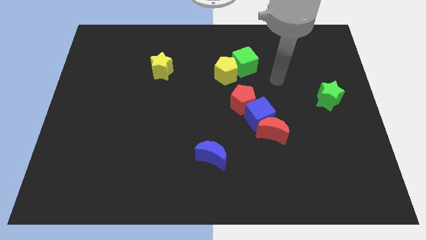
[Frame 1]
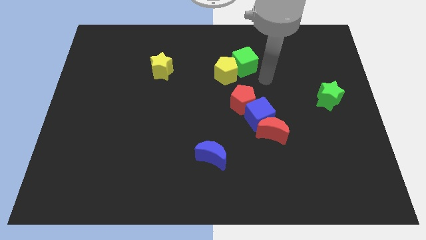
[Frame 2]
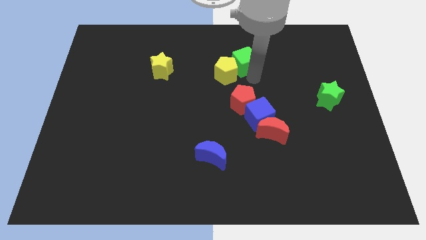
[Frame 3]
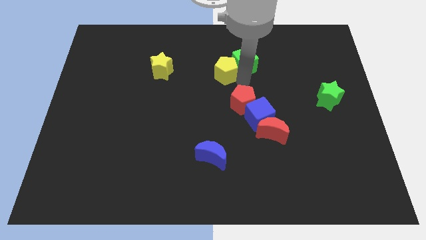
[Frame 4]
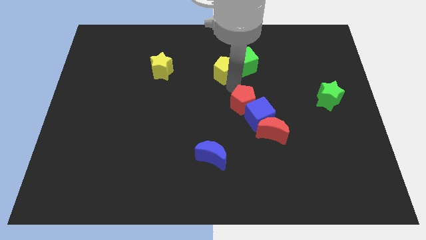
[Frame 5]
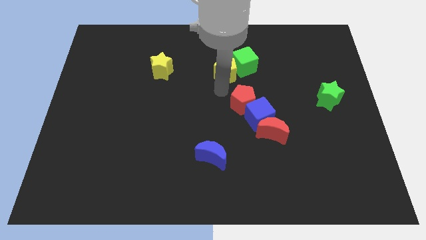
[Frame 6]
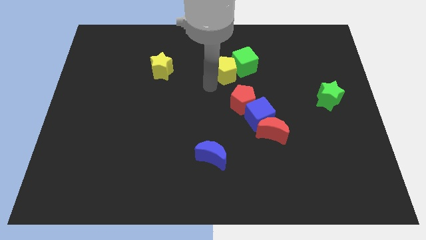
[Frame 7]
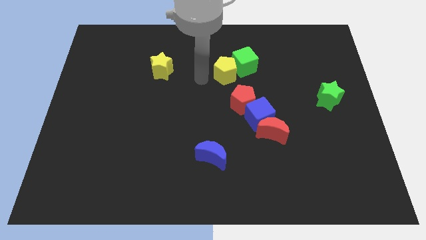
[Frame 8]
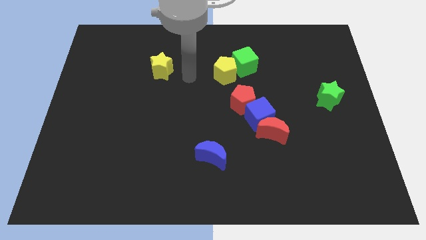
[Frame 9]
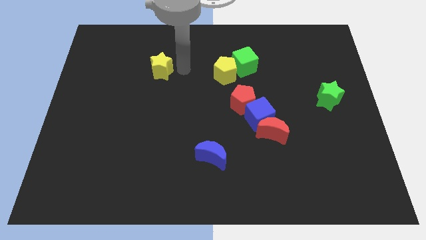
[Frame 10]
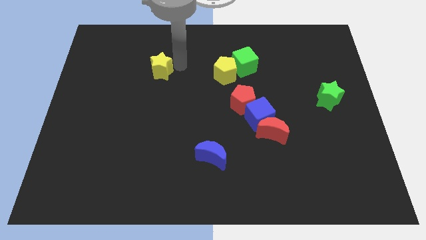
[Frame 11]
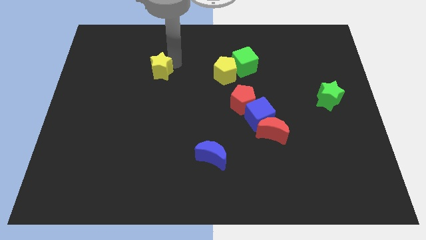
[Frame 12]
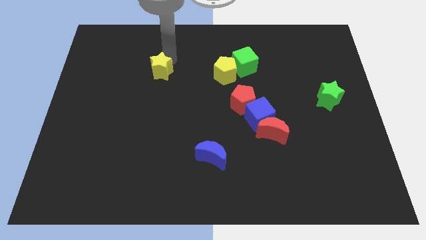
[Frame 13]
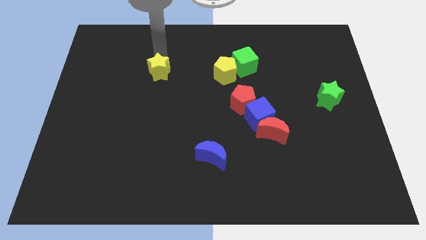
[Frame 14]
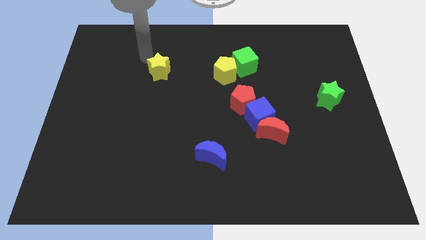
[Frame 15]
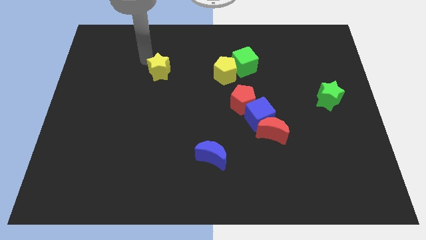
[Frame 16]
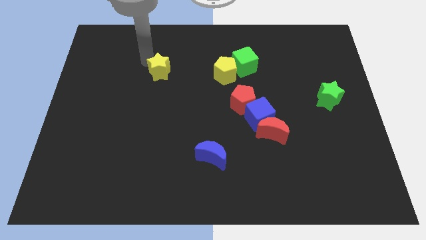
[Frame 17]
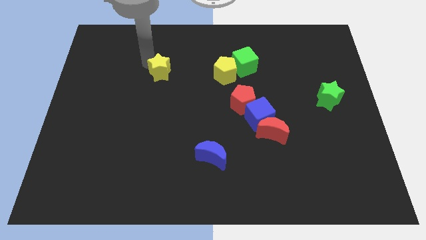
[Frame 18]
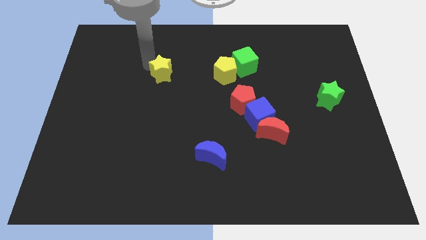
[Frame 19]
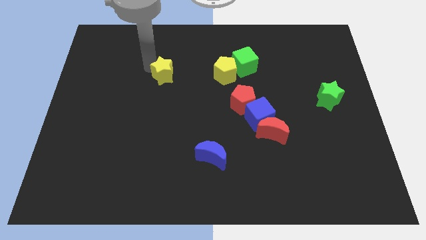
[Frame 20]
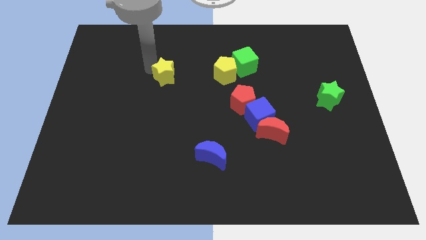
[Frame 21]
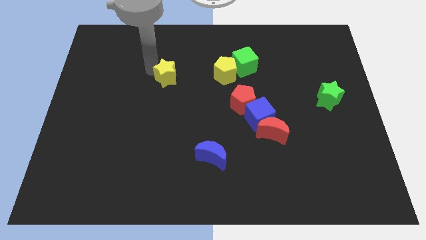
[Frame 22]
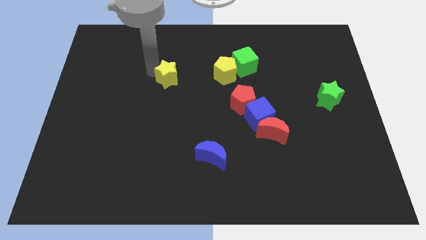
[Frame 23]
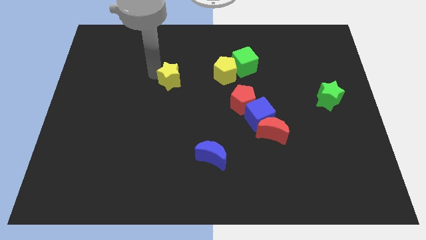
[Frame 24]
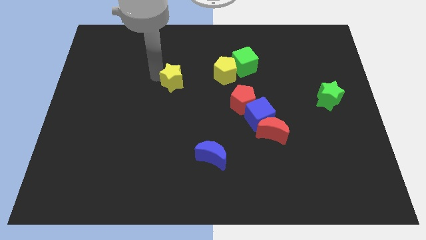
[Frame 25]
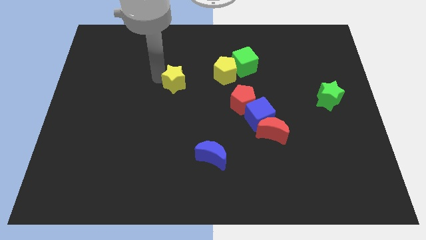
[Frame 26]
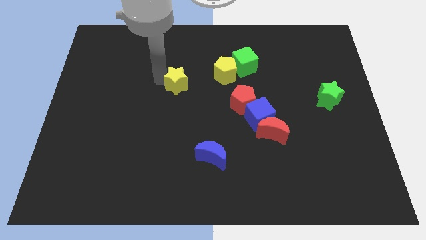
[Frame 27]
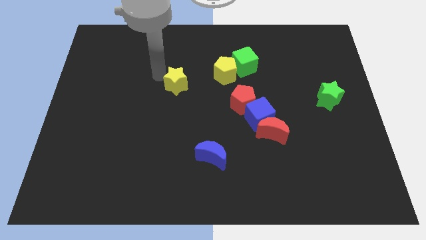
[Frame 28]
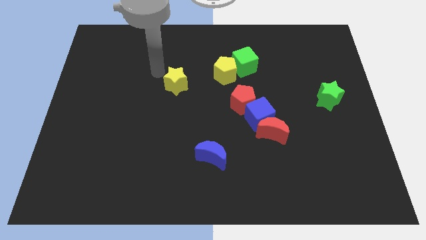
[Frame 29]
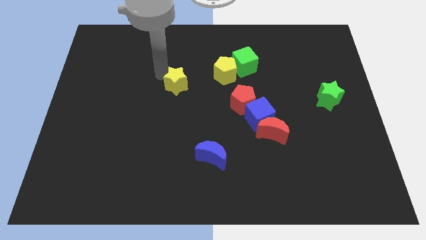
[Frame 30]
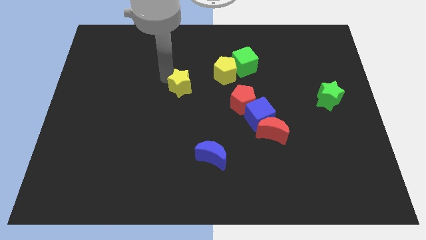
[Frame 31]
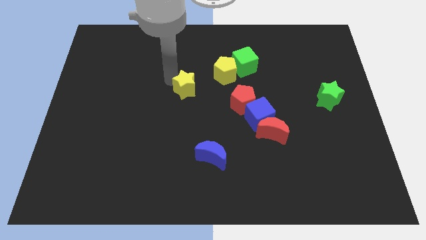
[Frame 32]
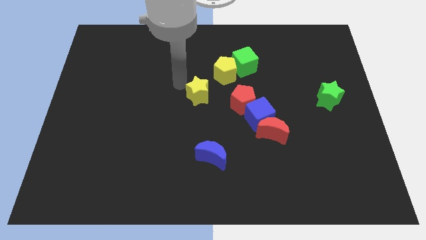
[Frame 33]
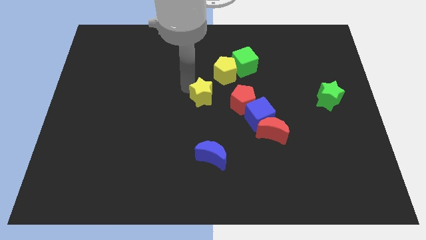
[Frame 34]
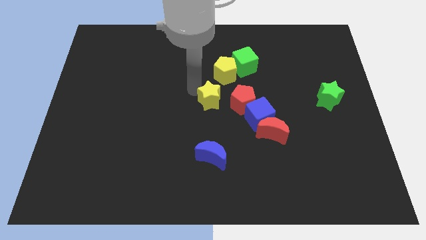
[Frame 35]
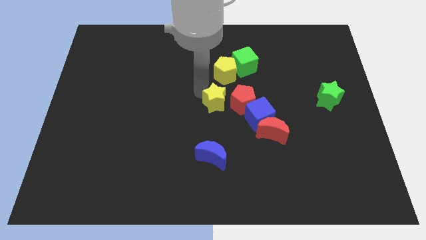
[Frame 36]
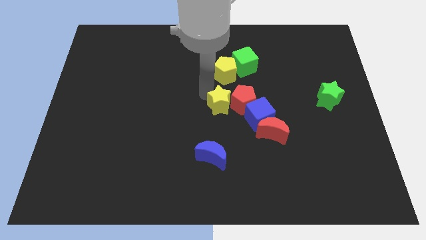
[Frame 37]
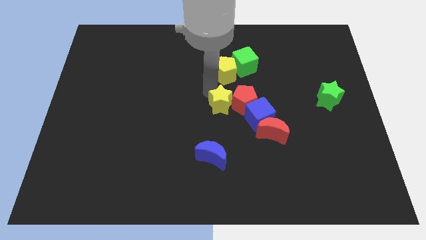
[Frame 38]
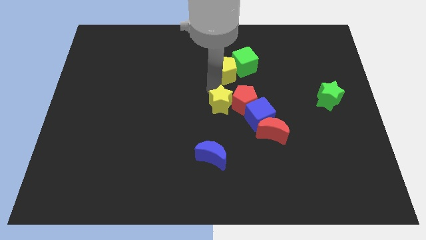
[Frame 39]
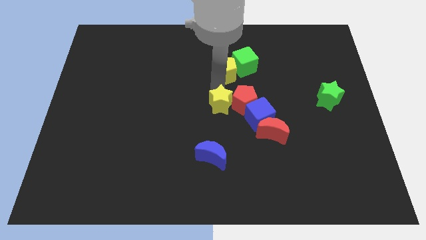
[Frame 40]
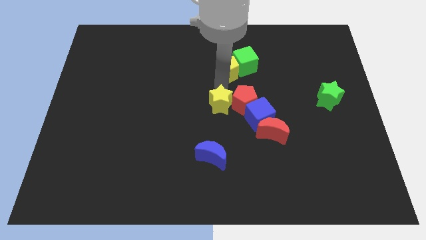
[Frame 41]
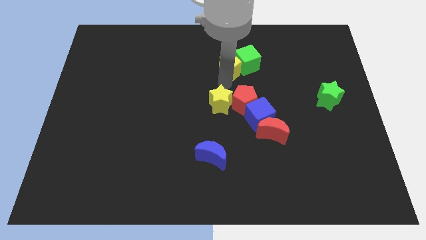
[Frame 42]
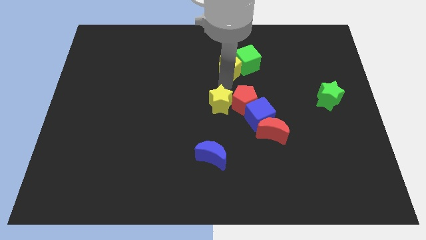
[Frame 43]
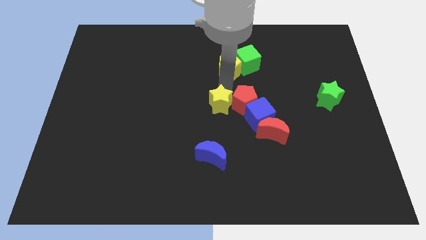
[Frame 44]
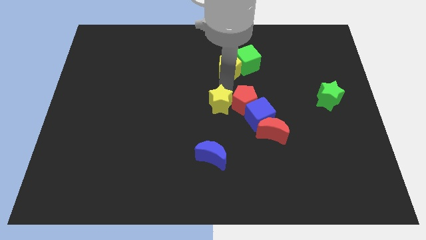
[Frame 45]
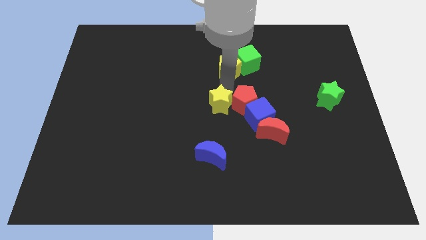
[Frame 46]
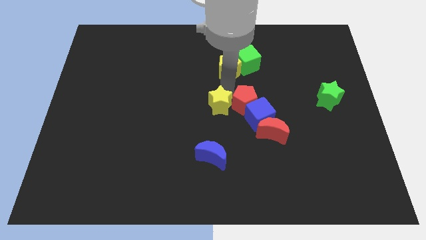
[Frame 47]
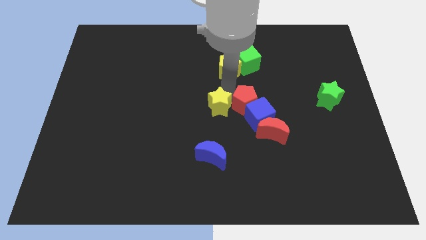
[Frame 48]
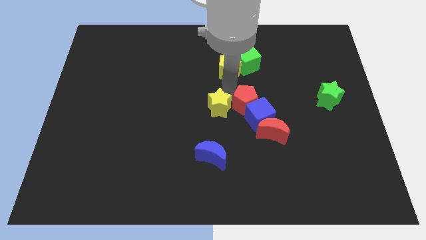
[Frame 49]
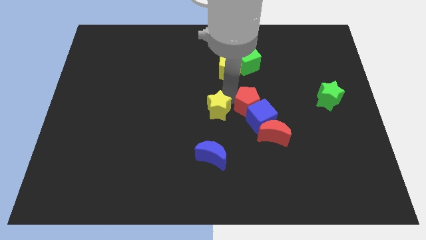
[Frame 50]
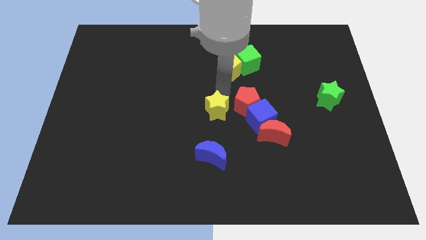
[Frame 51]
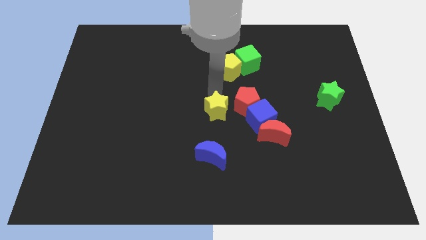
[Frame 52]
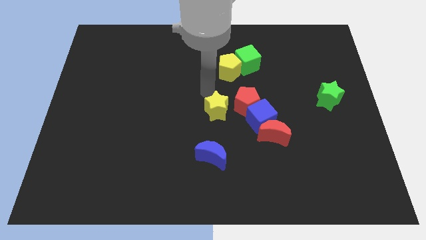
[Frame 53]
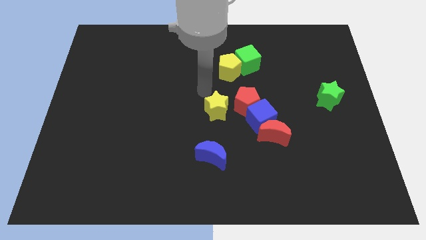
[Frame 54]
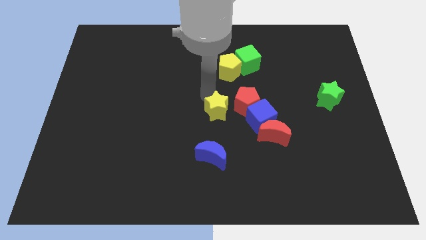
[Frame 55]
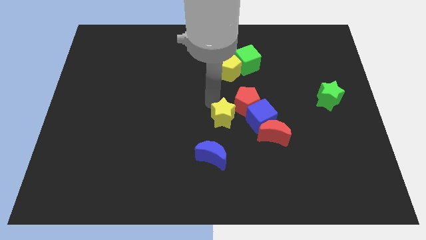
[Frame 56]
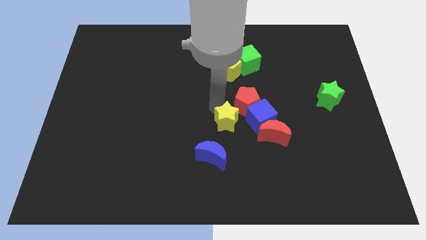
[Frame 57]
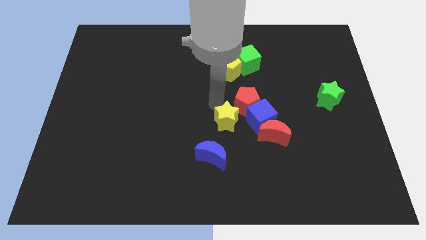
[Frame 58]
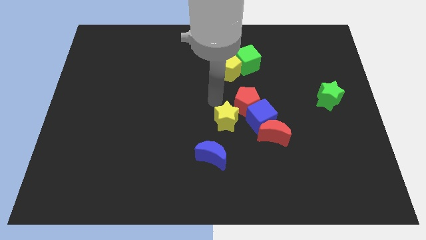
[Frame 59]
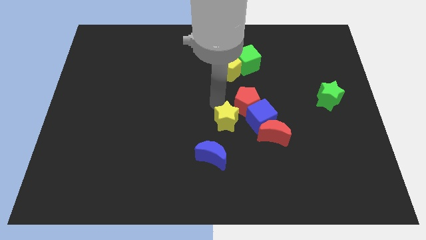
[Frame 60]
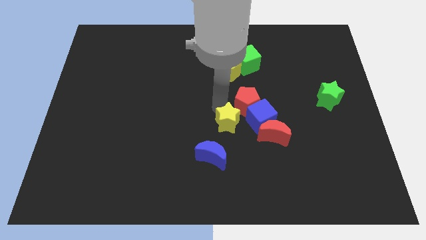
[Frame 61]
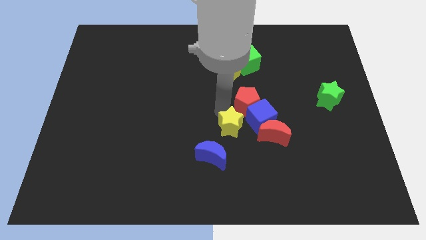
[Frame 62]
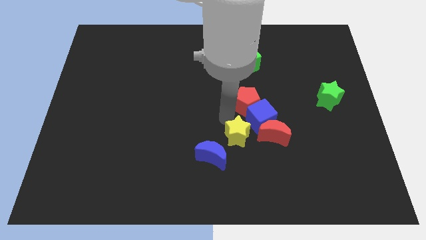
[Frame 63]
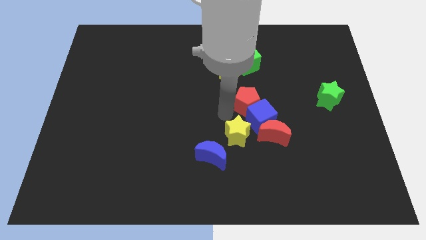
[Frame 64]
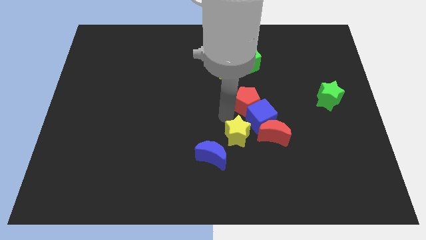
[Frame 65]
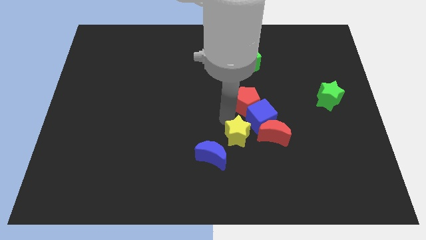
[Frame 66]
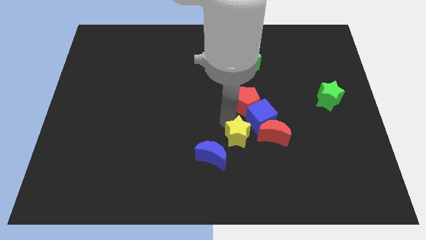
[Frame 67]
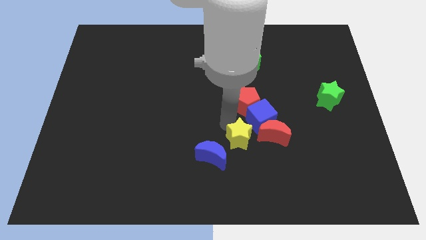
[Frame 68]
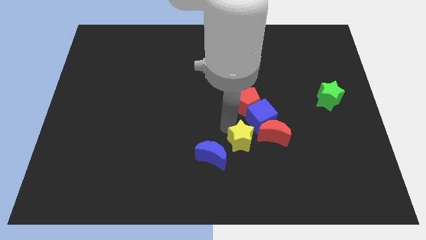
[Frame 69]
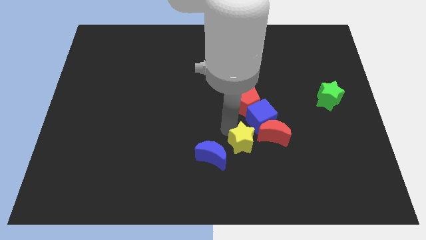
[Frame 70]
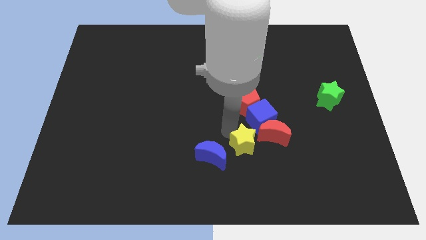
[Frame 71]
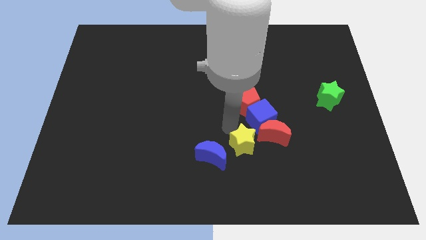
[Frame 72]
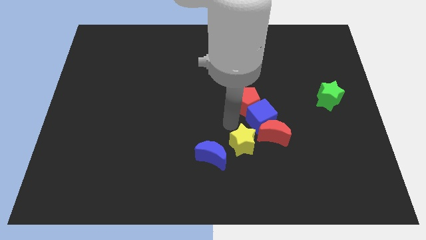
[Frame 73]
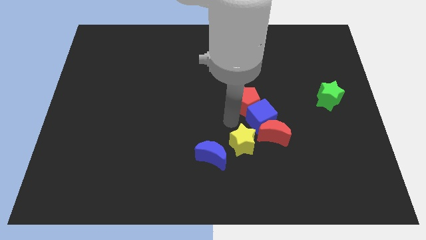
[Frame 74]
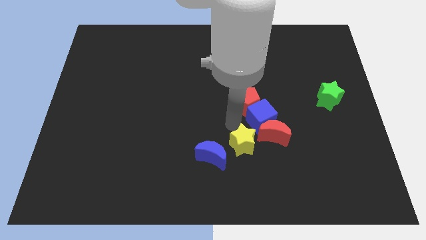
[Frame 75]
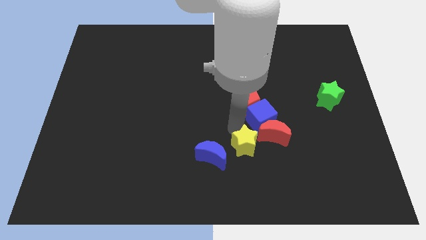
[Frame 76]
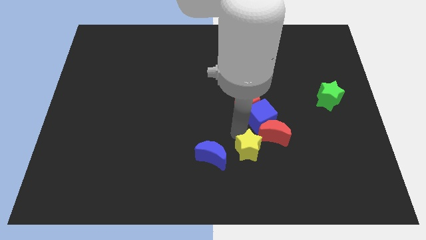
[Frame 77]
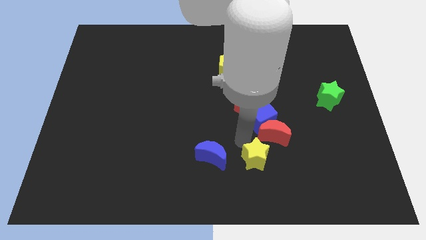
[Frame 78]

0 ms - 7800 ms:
move the yellow star to the bottom of the red moon
